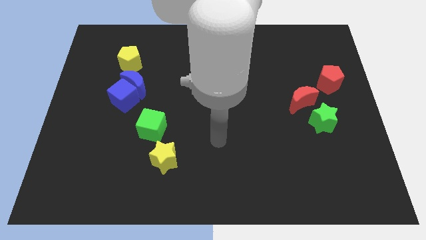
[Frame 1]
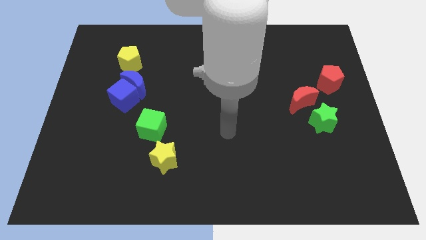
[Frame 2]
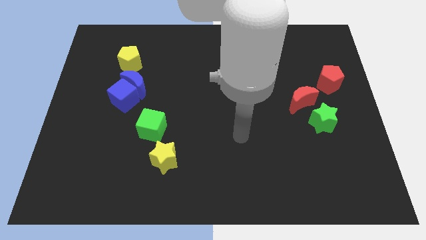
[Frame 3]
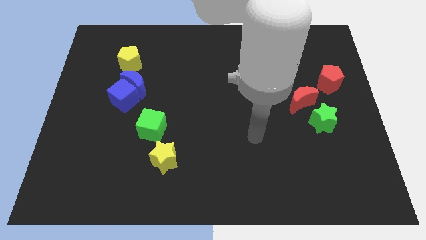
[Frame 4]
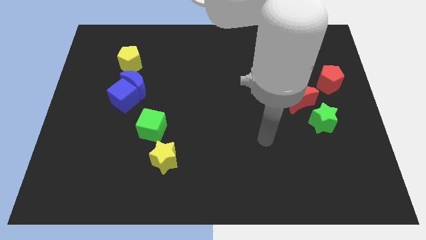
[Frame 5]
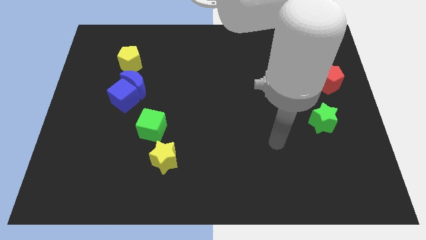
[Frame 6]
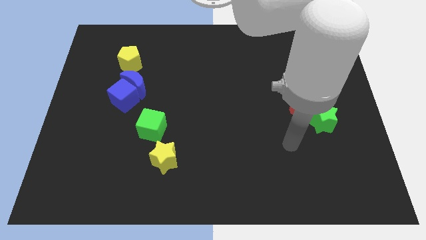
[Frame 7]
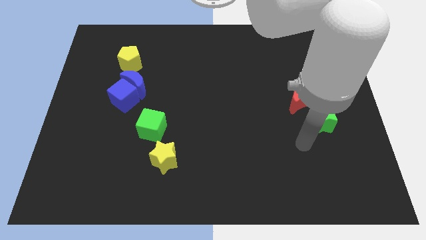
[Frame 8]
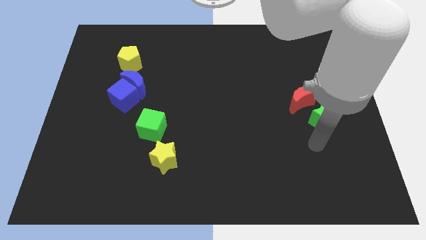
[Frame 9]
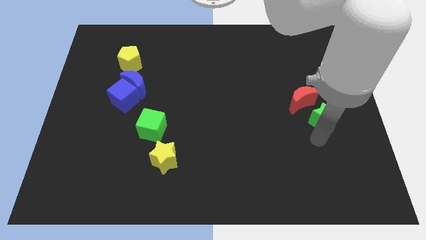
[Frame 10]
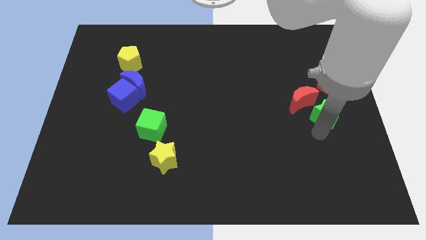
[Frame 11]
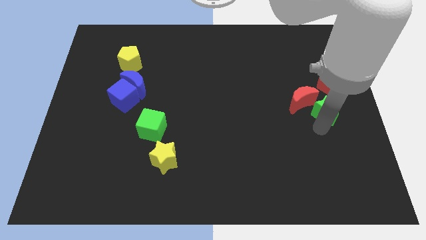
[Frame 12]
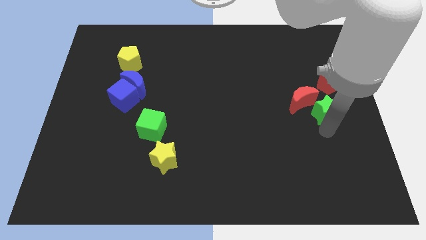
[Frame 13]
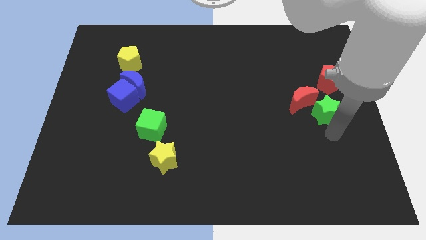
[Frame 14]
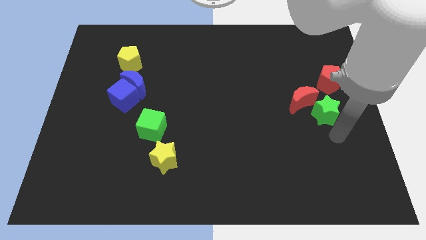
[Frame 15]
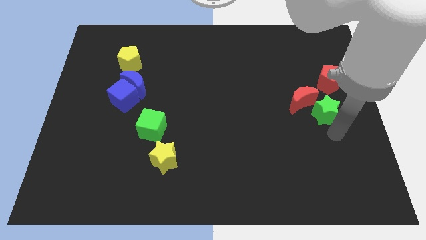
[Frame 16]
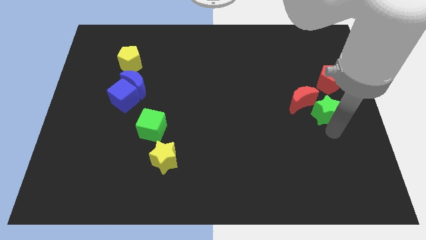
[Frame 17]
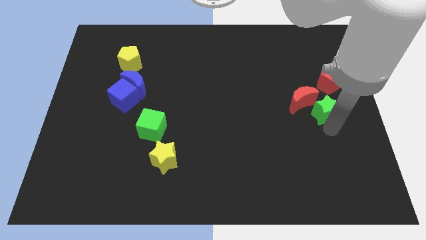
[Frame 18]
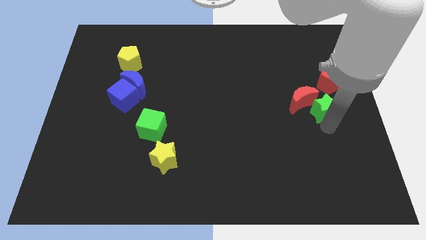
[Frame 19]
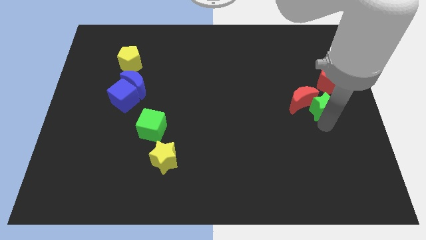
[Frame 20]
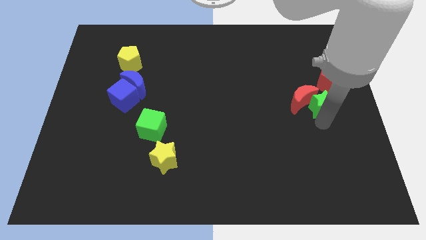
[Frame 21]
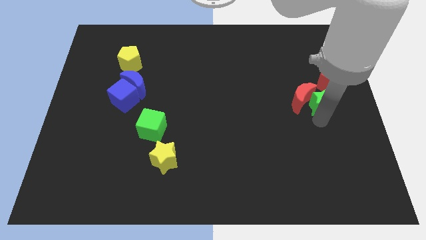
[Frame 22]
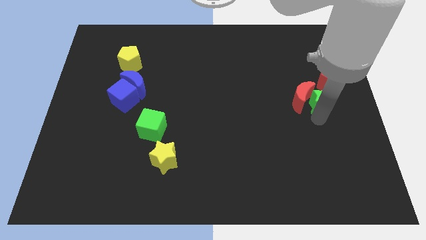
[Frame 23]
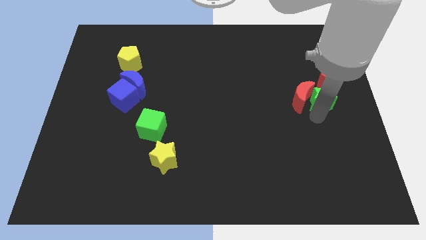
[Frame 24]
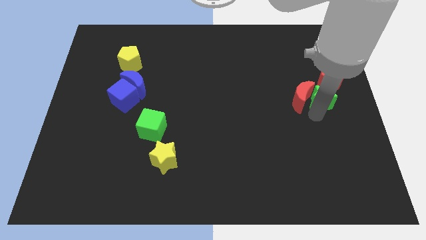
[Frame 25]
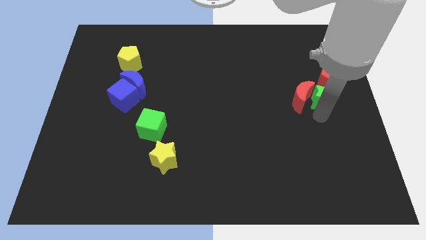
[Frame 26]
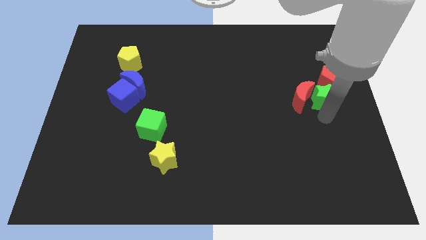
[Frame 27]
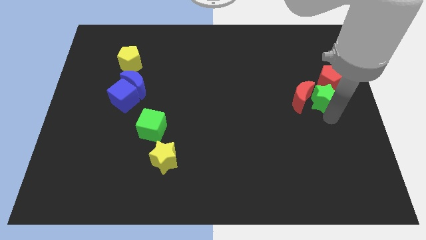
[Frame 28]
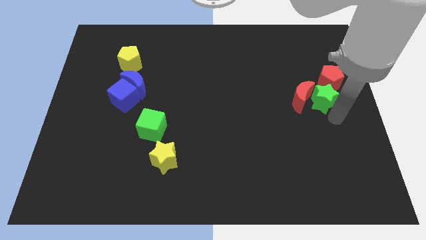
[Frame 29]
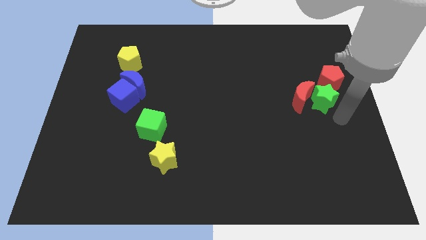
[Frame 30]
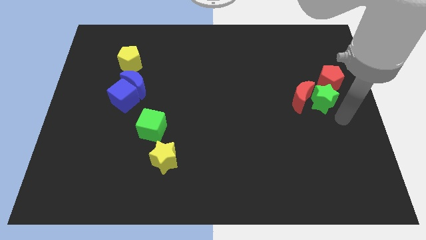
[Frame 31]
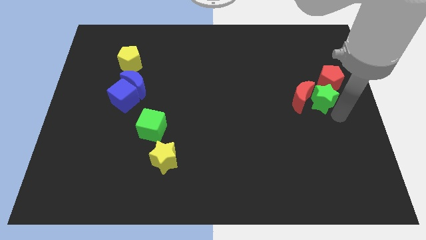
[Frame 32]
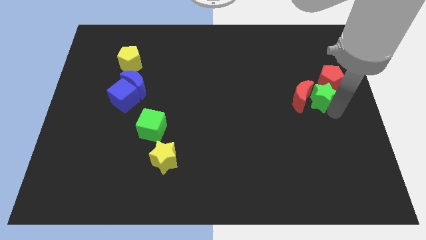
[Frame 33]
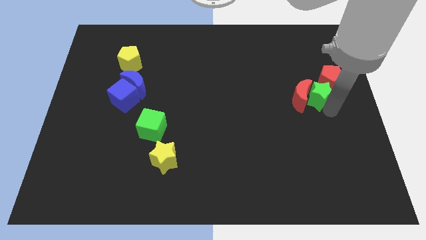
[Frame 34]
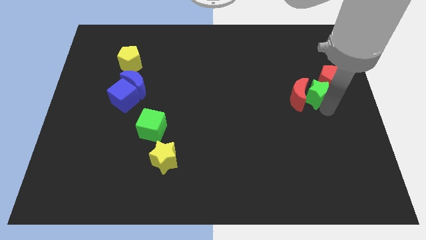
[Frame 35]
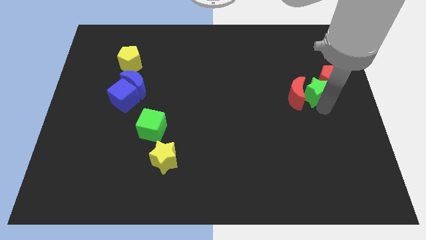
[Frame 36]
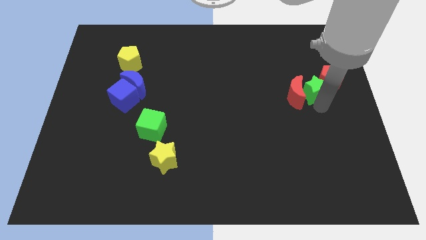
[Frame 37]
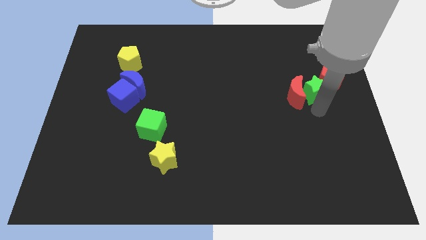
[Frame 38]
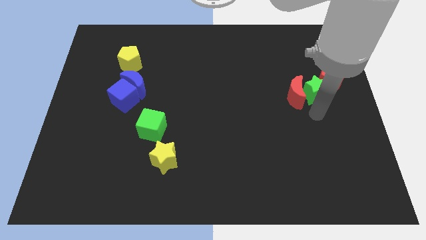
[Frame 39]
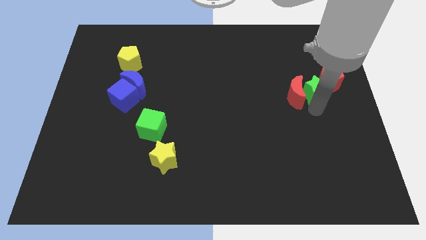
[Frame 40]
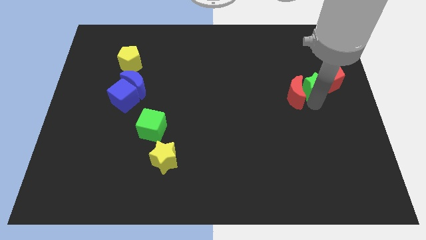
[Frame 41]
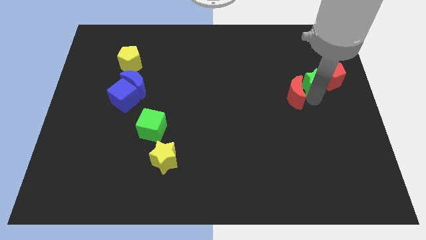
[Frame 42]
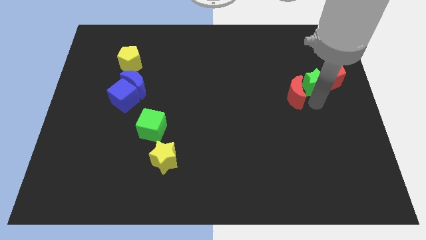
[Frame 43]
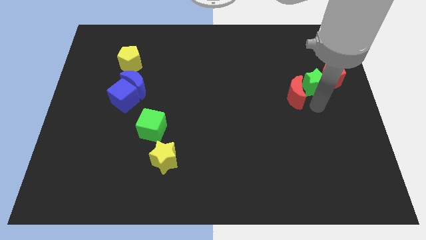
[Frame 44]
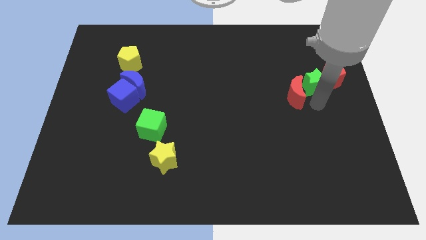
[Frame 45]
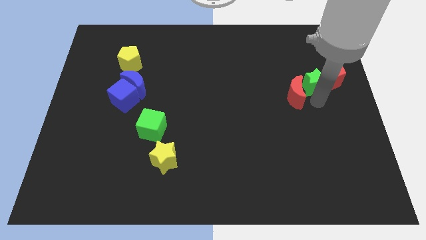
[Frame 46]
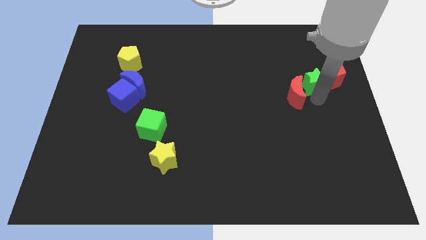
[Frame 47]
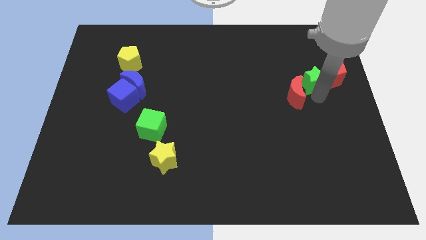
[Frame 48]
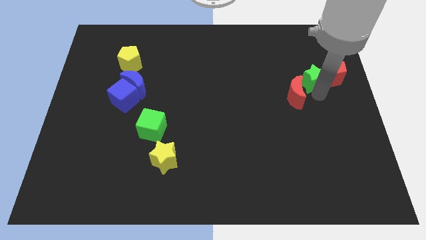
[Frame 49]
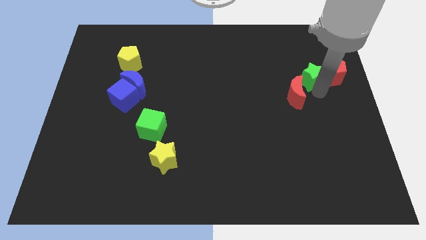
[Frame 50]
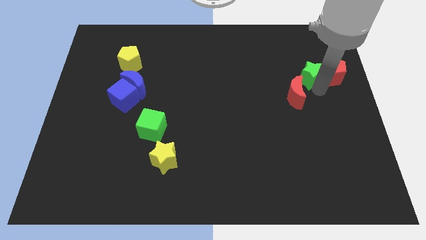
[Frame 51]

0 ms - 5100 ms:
push the green star to the top left side of the red pentagon

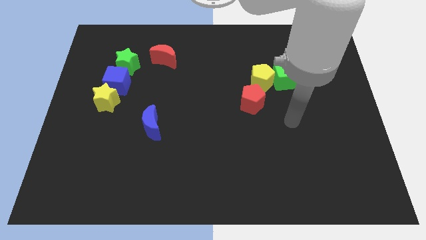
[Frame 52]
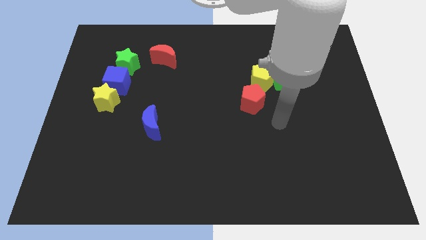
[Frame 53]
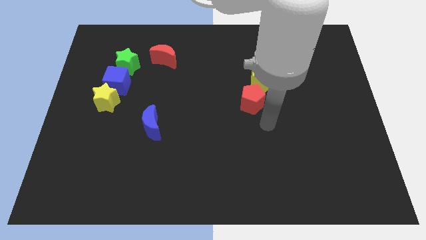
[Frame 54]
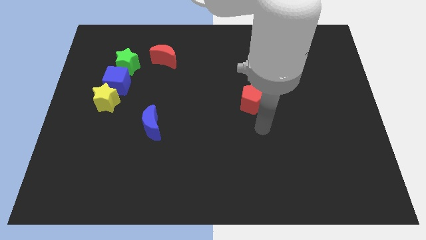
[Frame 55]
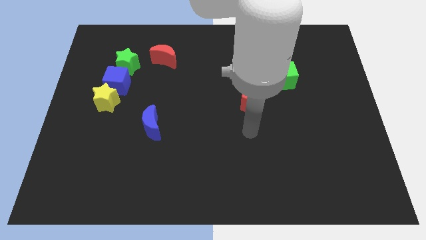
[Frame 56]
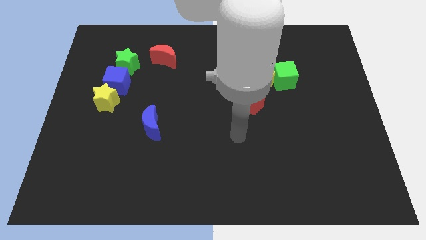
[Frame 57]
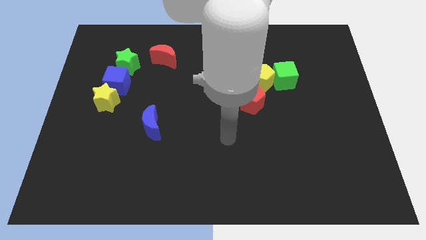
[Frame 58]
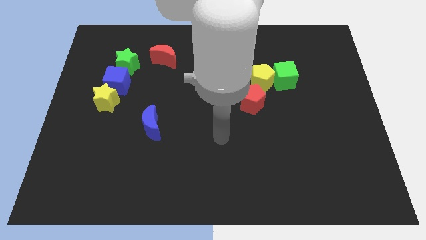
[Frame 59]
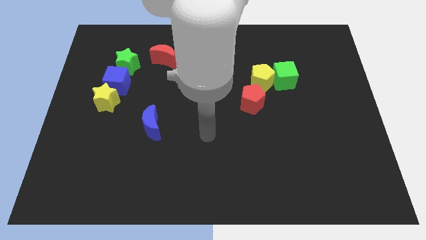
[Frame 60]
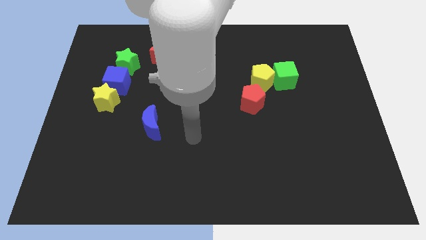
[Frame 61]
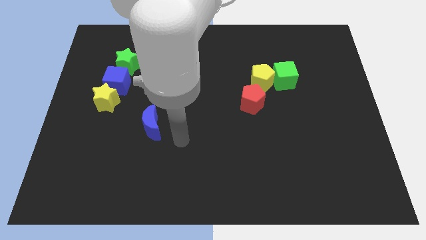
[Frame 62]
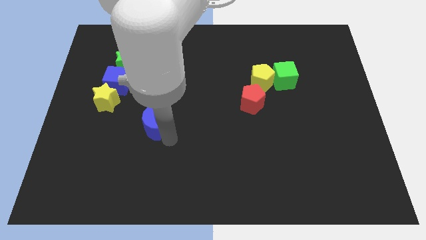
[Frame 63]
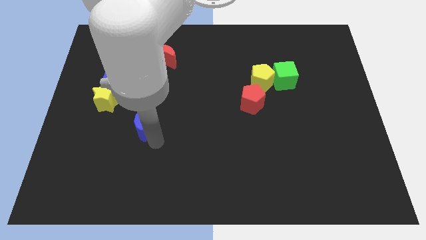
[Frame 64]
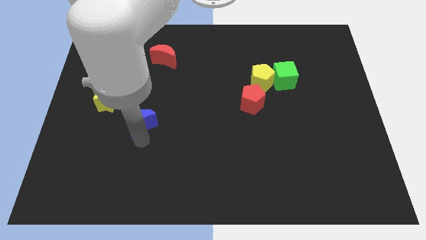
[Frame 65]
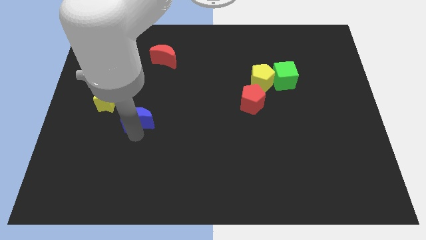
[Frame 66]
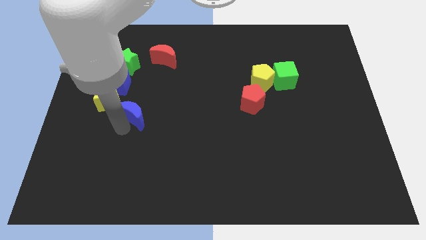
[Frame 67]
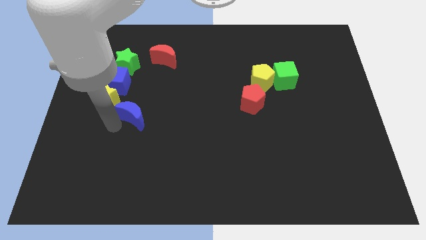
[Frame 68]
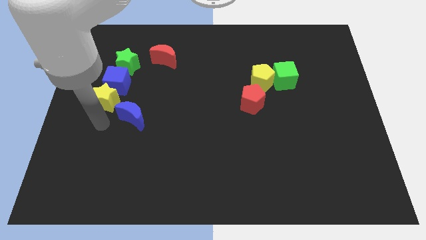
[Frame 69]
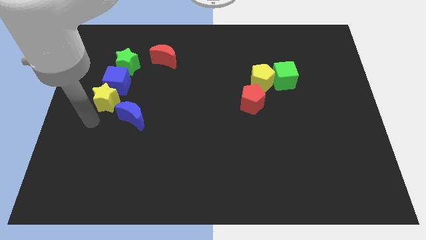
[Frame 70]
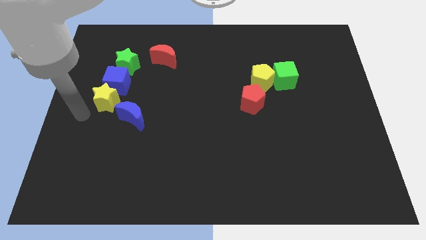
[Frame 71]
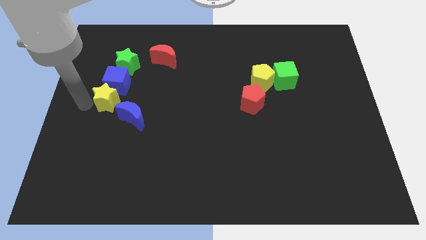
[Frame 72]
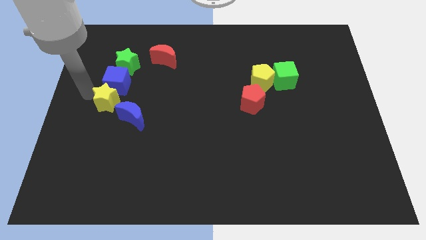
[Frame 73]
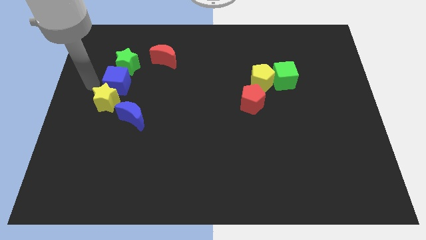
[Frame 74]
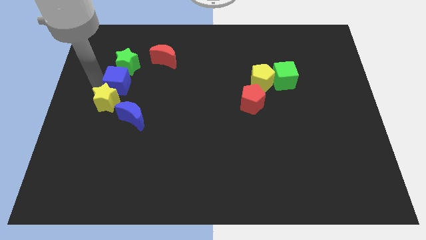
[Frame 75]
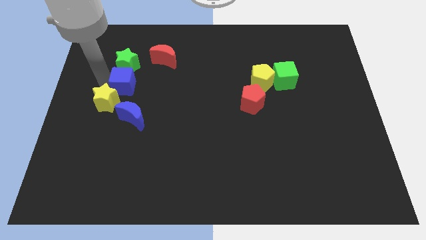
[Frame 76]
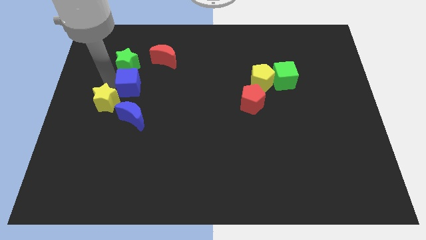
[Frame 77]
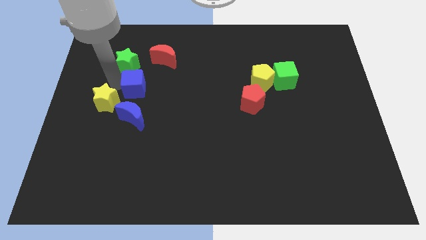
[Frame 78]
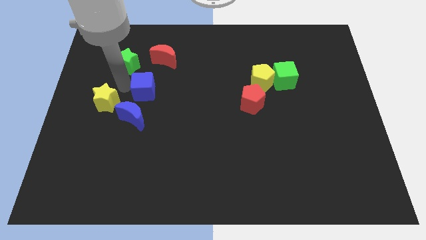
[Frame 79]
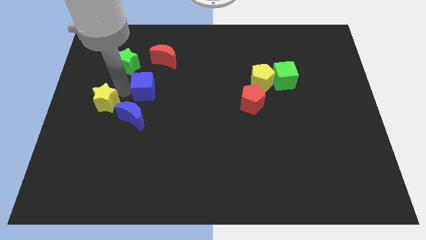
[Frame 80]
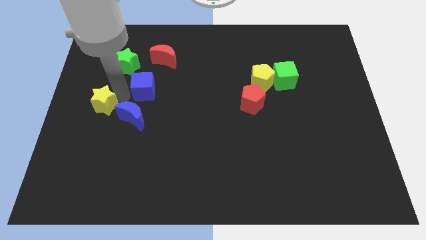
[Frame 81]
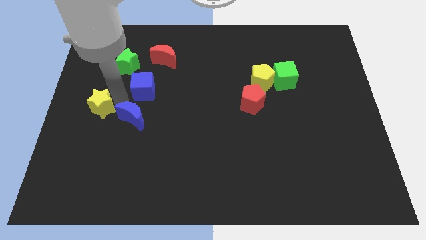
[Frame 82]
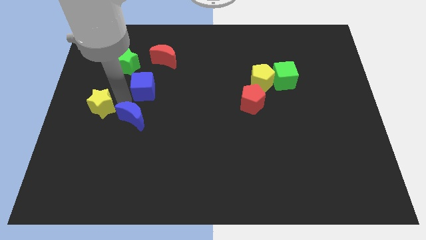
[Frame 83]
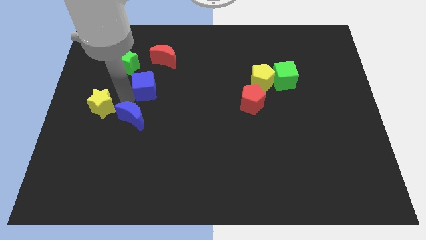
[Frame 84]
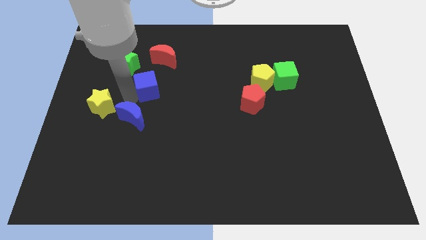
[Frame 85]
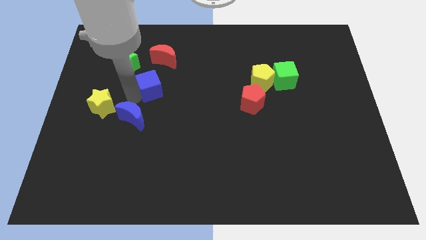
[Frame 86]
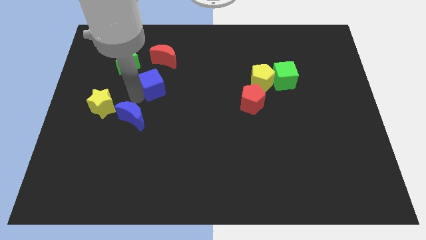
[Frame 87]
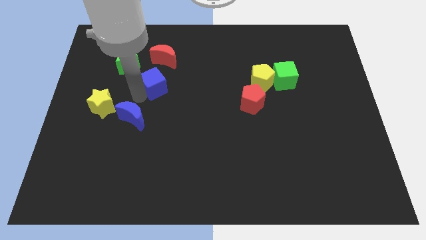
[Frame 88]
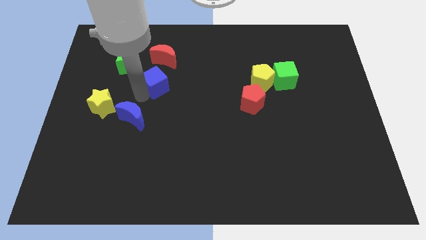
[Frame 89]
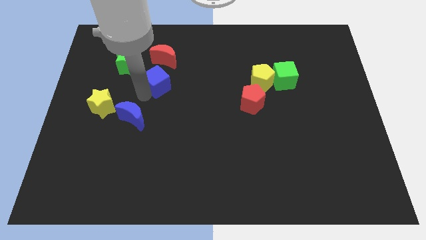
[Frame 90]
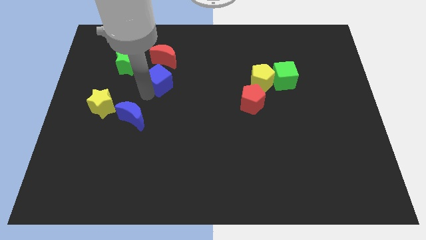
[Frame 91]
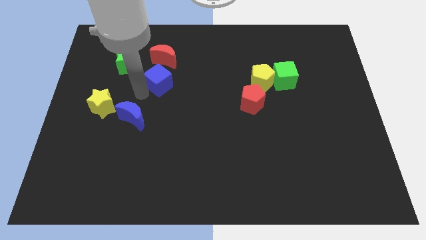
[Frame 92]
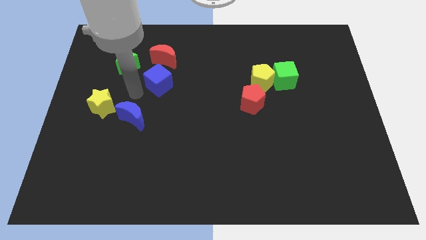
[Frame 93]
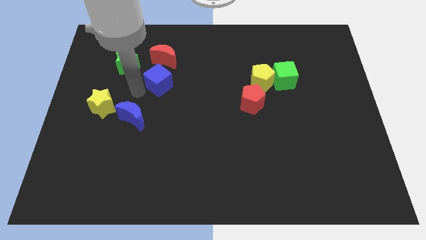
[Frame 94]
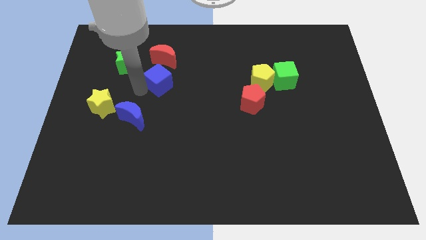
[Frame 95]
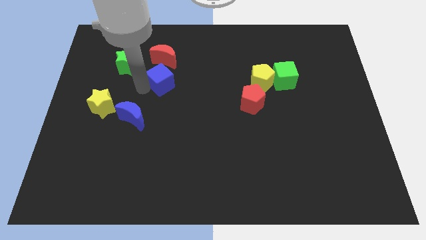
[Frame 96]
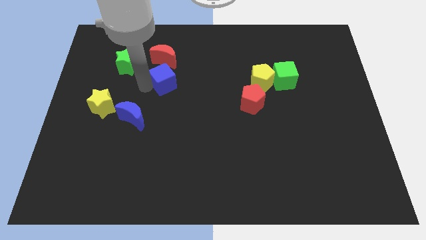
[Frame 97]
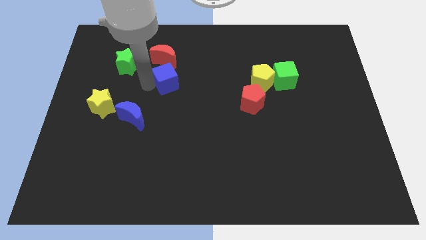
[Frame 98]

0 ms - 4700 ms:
move the blue cube diagonally down and to the right of the red moon
